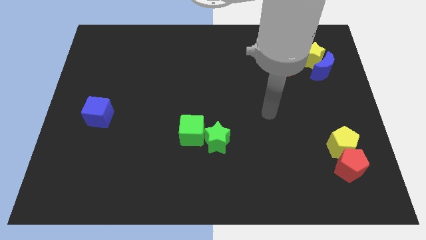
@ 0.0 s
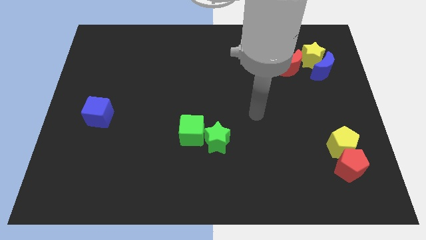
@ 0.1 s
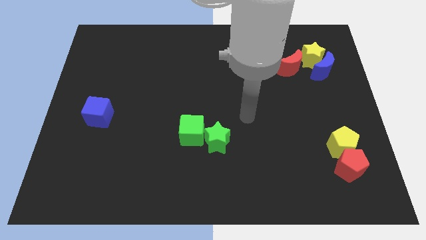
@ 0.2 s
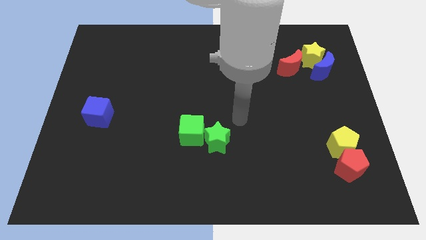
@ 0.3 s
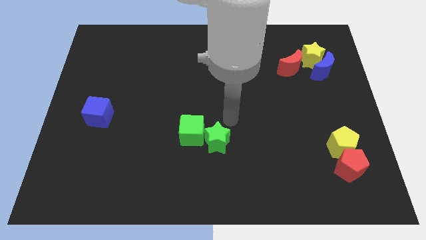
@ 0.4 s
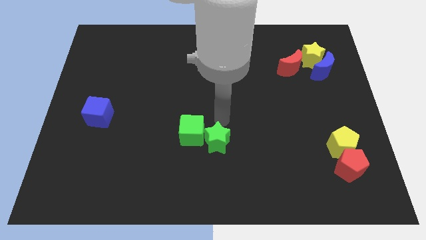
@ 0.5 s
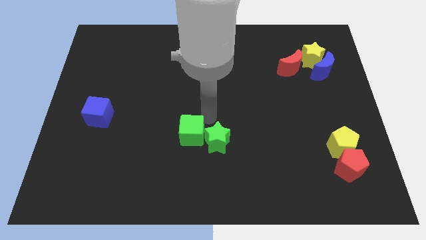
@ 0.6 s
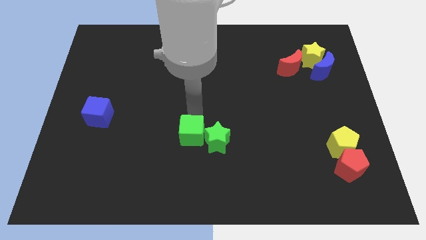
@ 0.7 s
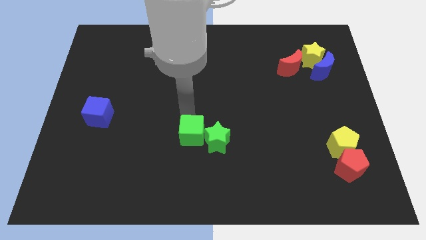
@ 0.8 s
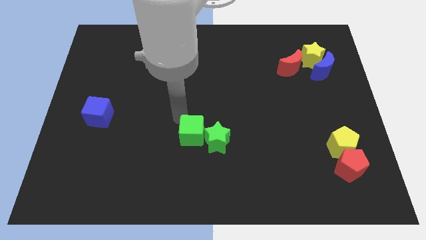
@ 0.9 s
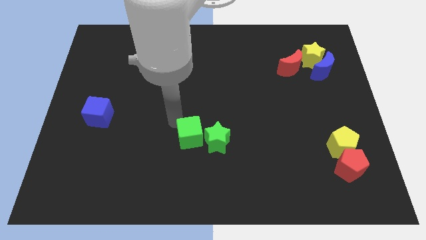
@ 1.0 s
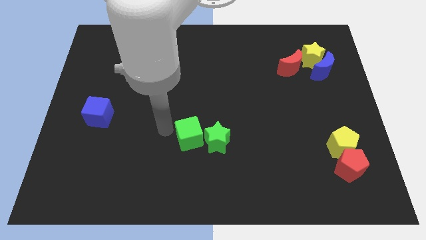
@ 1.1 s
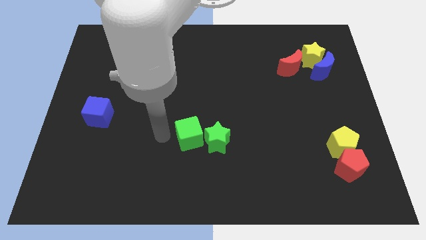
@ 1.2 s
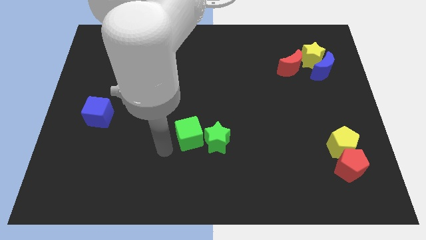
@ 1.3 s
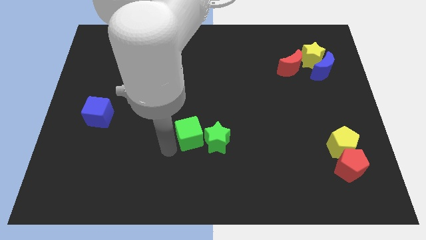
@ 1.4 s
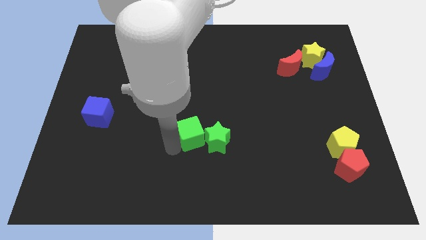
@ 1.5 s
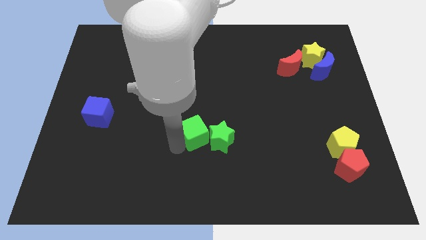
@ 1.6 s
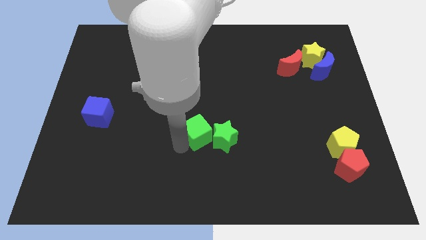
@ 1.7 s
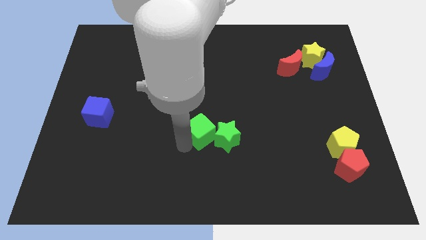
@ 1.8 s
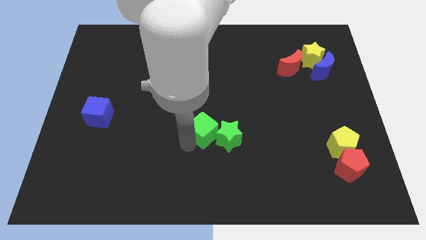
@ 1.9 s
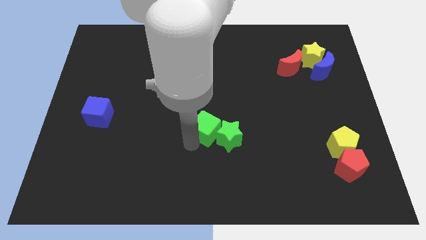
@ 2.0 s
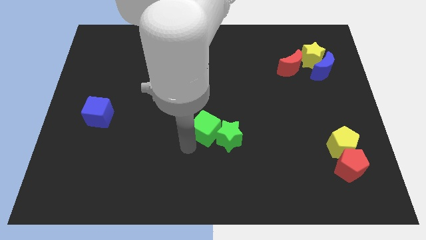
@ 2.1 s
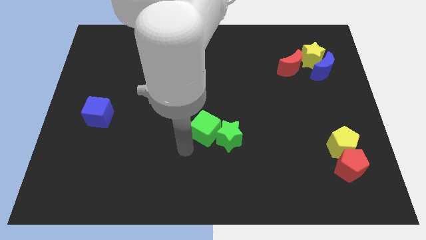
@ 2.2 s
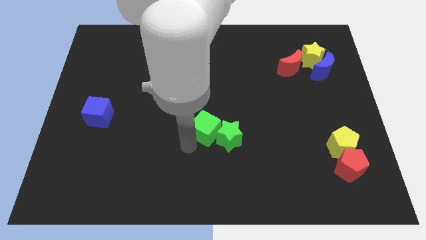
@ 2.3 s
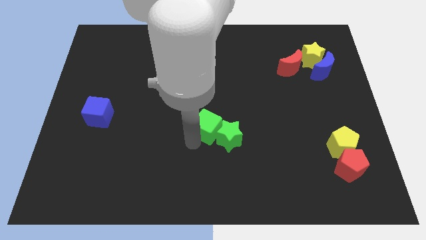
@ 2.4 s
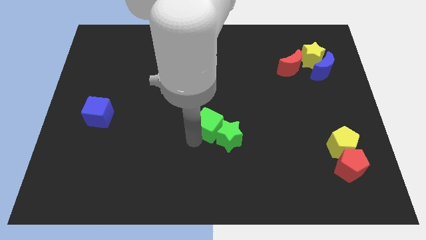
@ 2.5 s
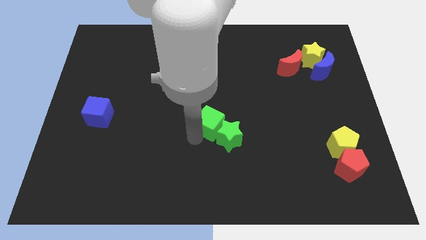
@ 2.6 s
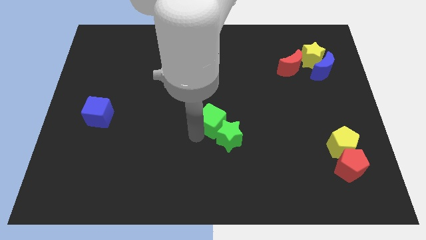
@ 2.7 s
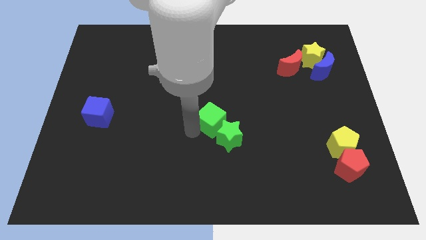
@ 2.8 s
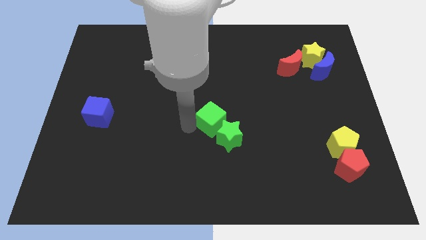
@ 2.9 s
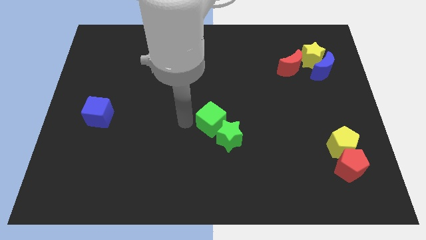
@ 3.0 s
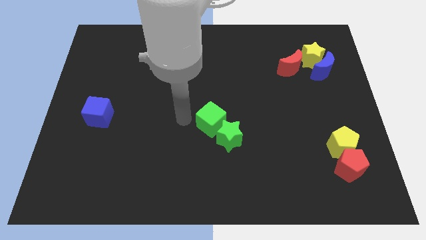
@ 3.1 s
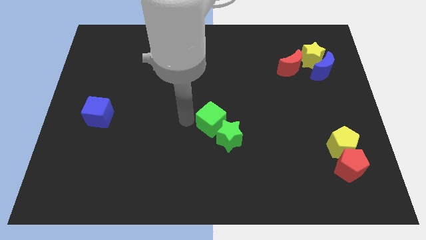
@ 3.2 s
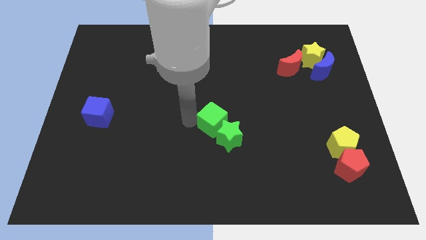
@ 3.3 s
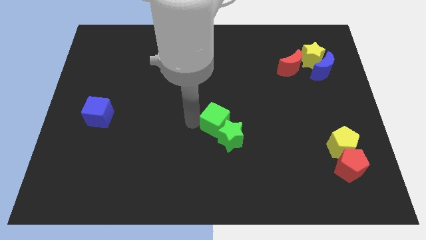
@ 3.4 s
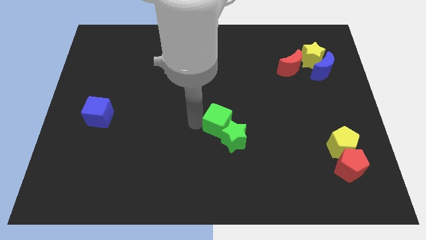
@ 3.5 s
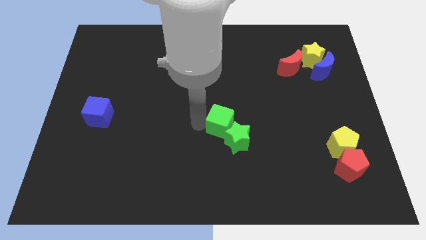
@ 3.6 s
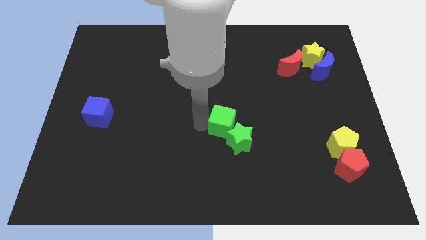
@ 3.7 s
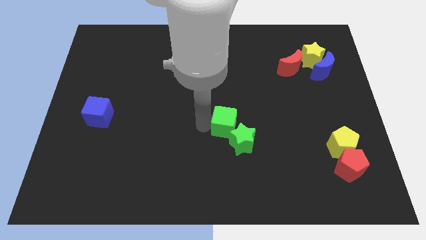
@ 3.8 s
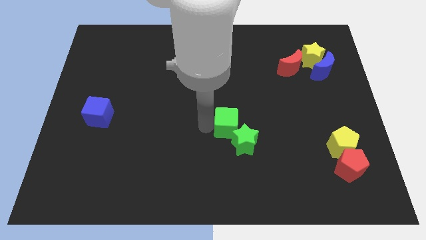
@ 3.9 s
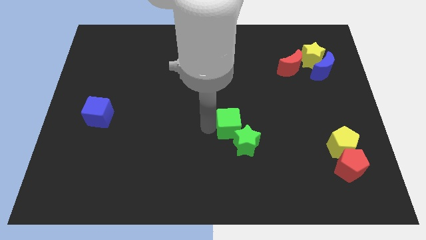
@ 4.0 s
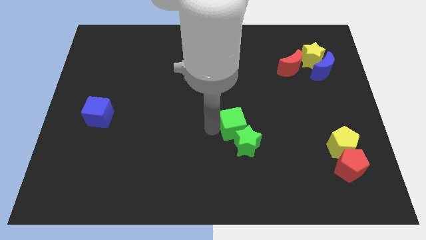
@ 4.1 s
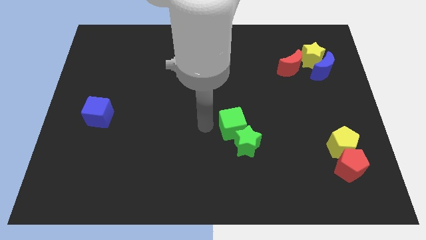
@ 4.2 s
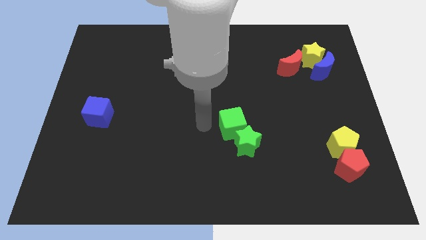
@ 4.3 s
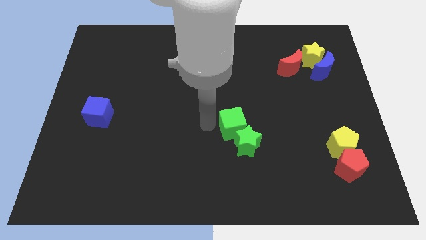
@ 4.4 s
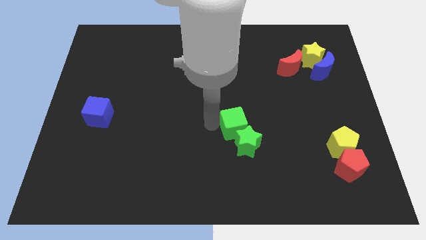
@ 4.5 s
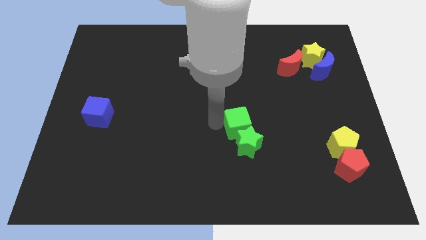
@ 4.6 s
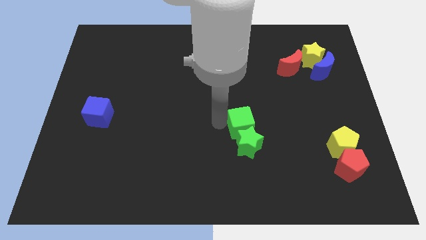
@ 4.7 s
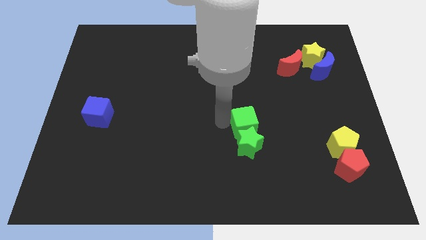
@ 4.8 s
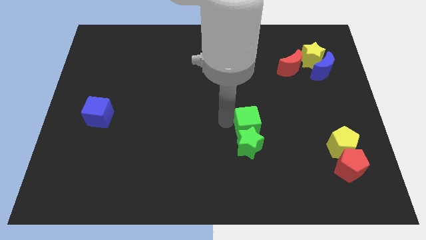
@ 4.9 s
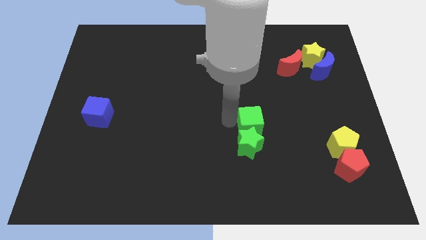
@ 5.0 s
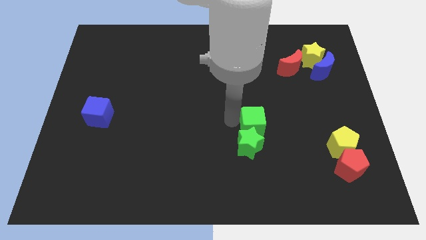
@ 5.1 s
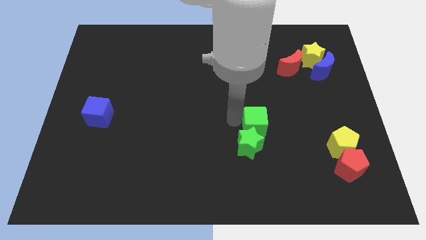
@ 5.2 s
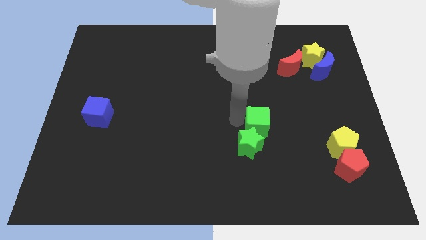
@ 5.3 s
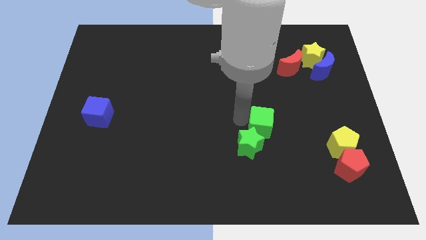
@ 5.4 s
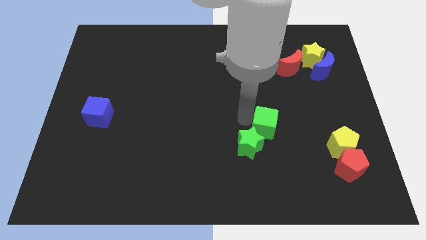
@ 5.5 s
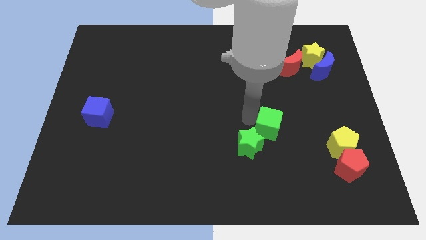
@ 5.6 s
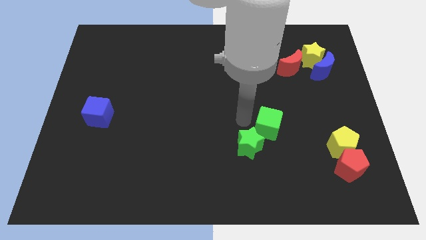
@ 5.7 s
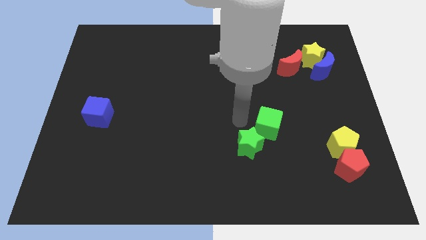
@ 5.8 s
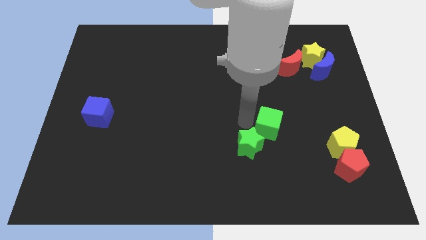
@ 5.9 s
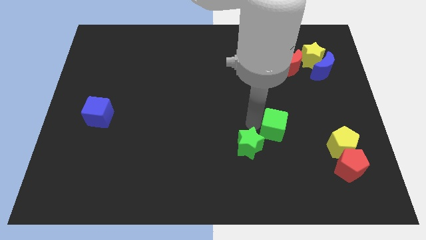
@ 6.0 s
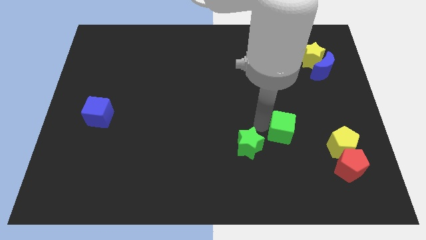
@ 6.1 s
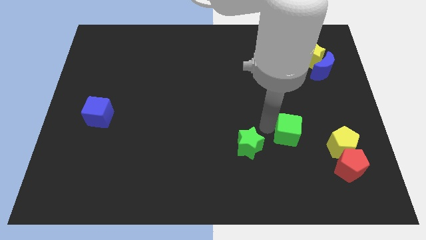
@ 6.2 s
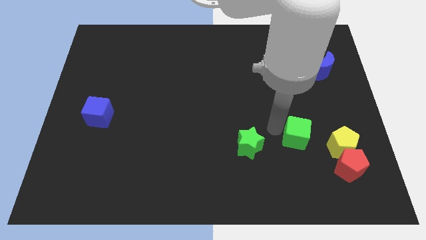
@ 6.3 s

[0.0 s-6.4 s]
put the green cube to the top left of the red pentagon

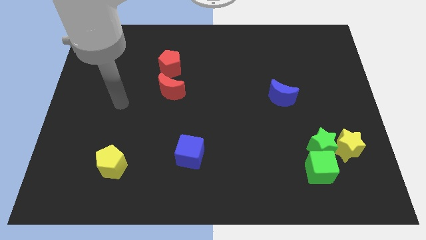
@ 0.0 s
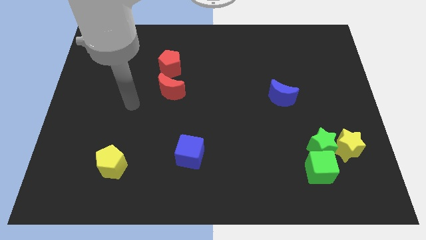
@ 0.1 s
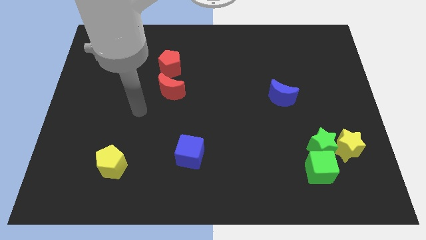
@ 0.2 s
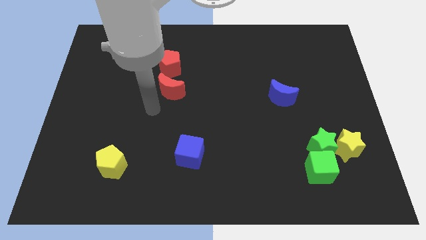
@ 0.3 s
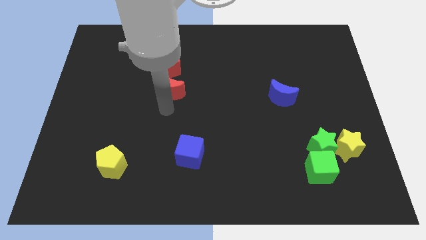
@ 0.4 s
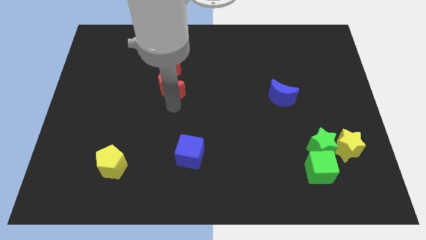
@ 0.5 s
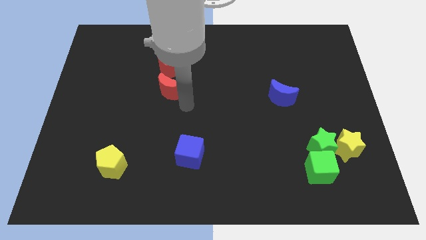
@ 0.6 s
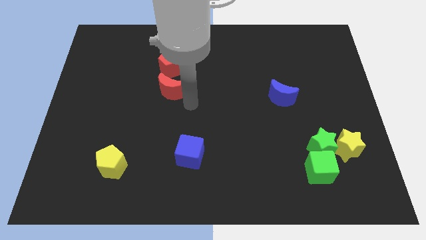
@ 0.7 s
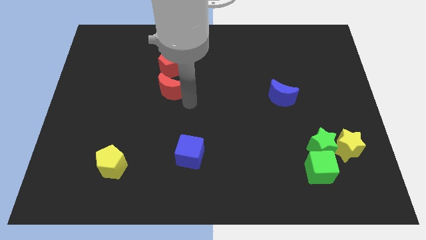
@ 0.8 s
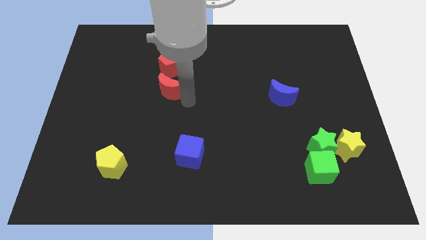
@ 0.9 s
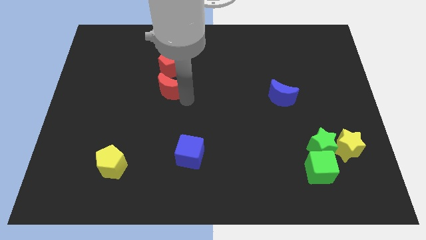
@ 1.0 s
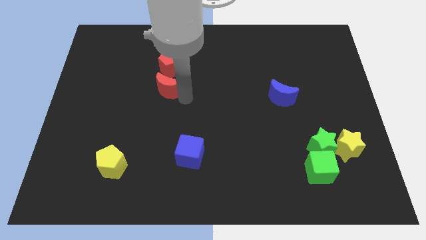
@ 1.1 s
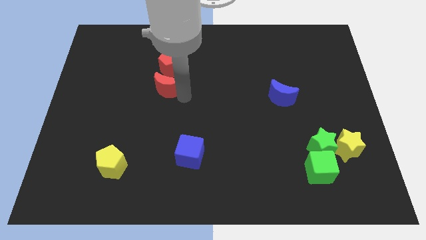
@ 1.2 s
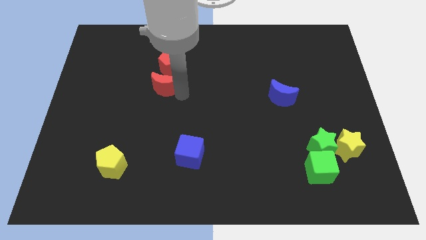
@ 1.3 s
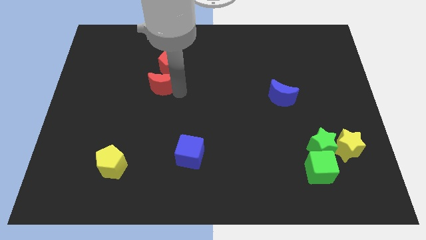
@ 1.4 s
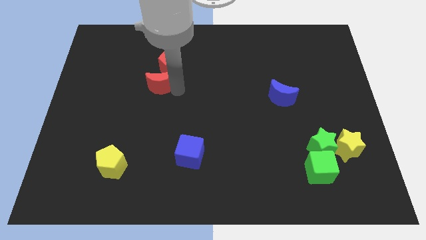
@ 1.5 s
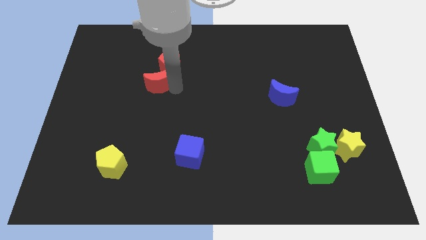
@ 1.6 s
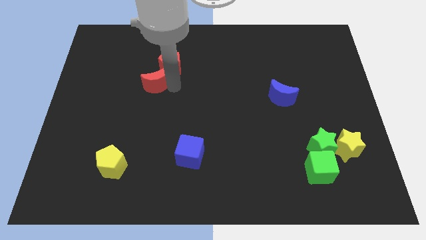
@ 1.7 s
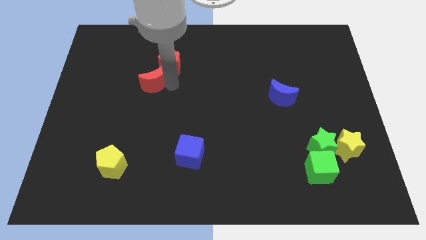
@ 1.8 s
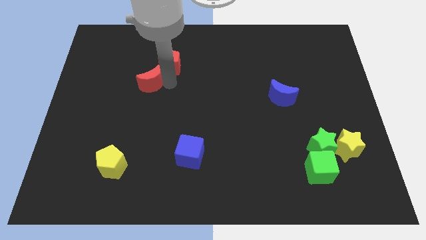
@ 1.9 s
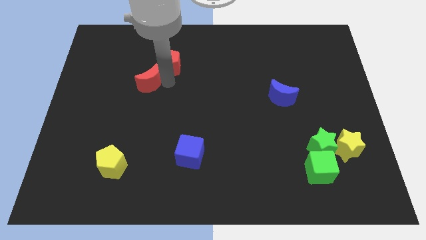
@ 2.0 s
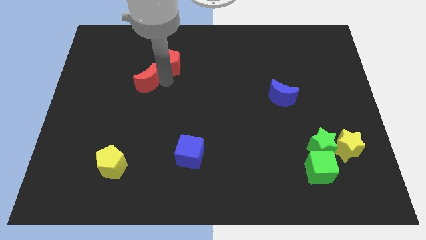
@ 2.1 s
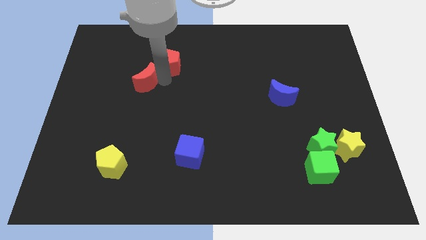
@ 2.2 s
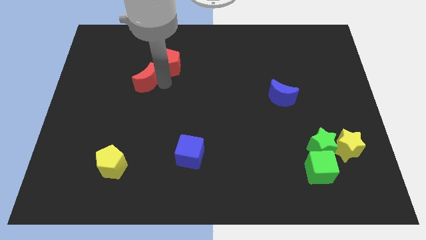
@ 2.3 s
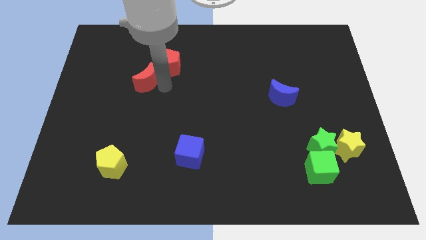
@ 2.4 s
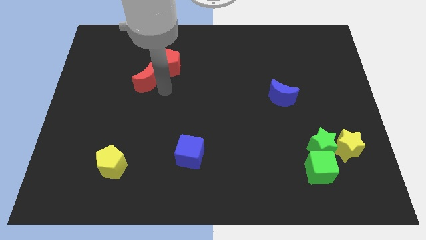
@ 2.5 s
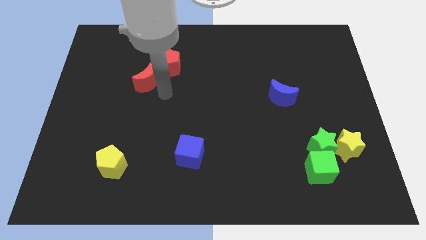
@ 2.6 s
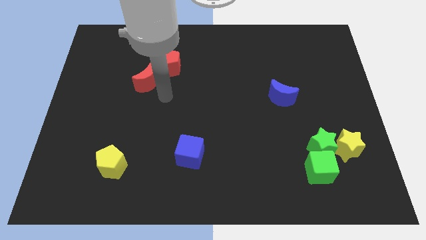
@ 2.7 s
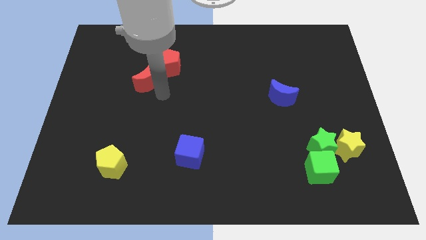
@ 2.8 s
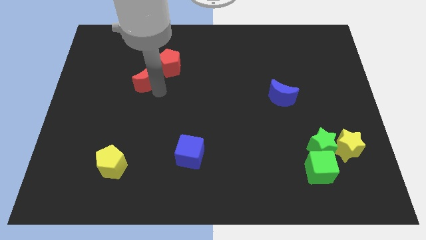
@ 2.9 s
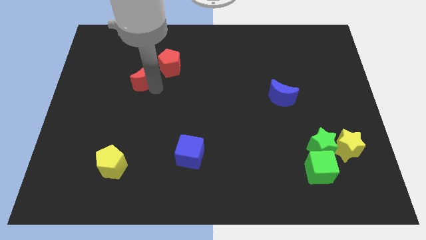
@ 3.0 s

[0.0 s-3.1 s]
push the red moon just left of the red pentagon
